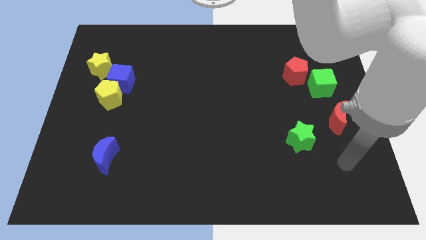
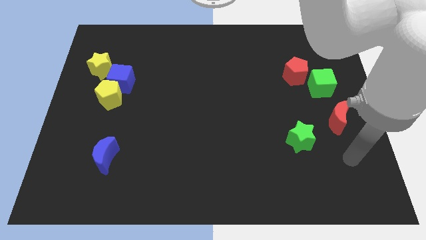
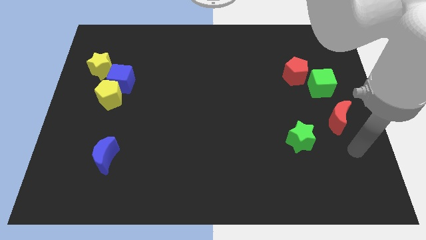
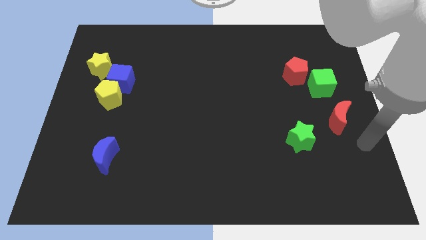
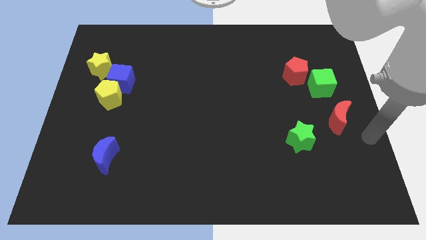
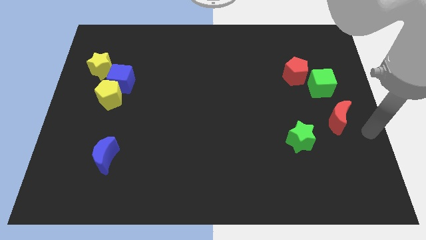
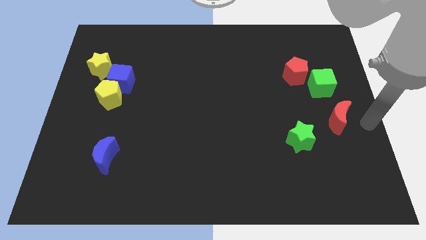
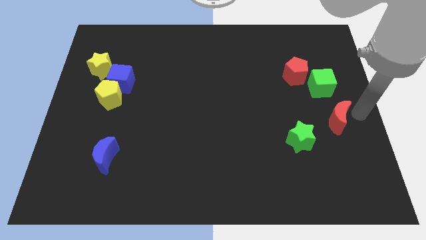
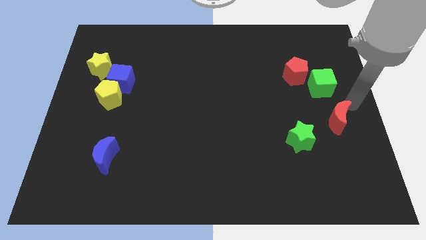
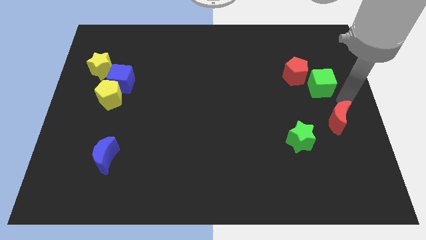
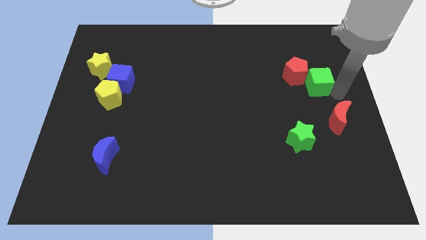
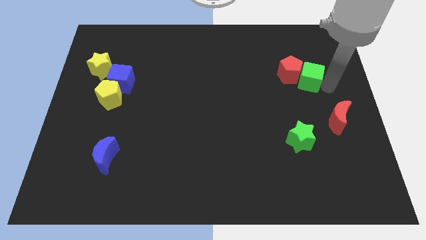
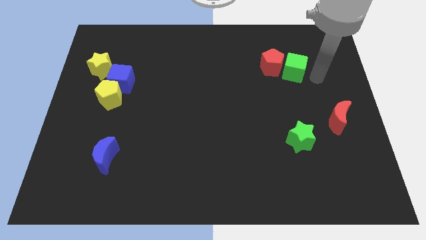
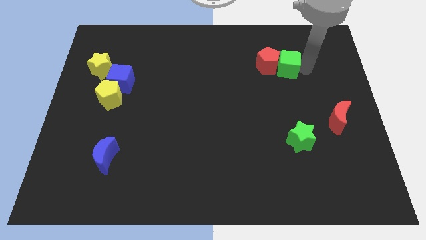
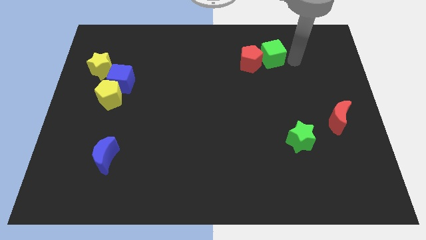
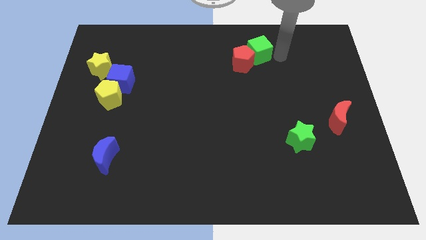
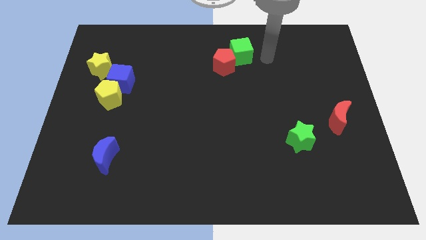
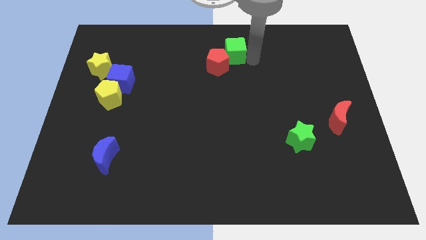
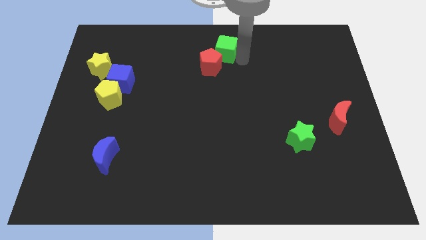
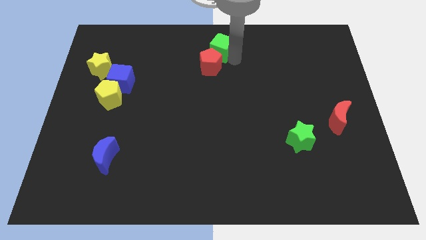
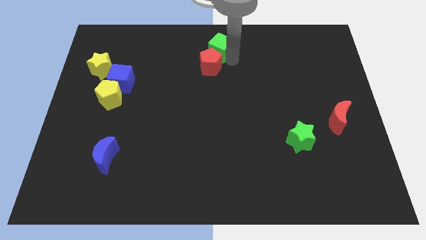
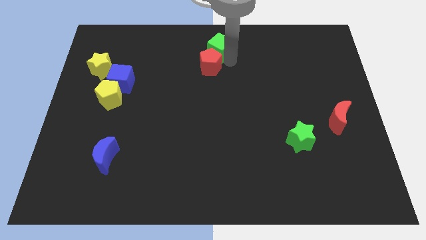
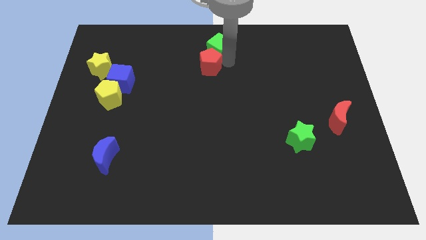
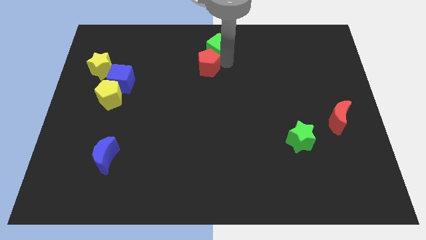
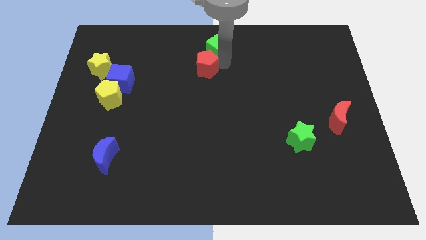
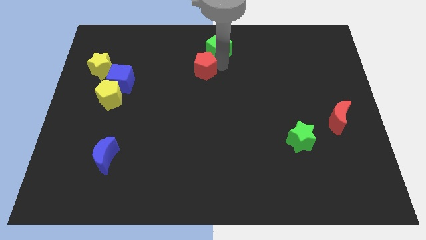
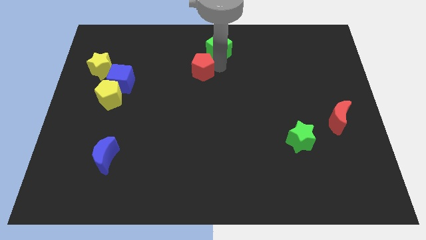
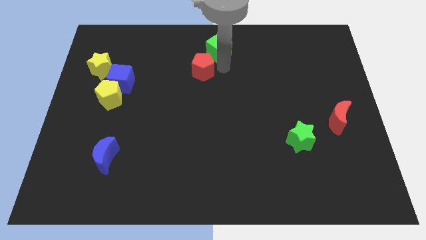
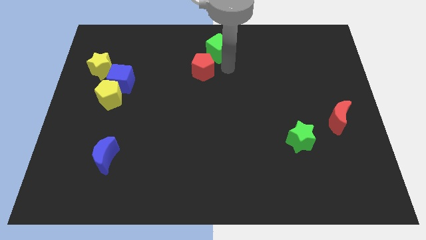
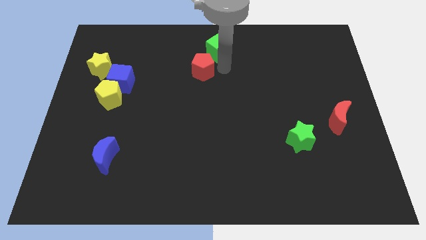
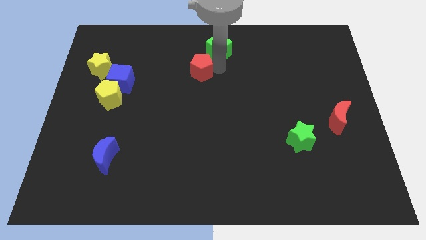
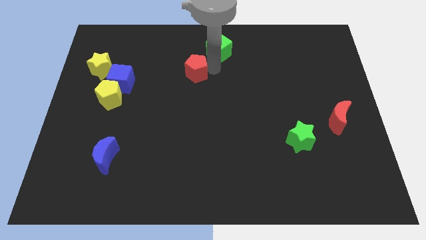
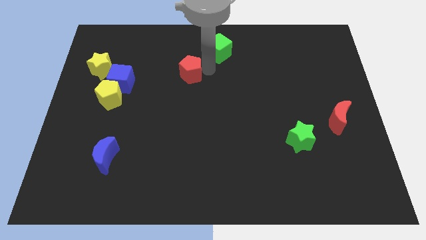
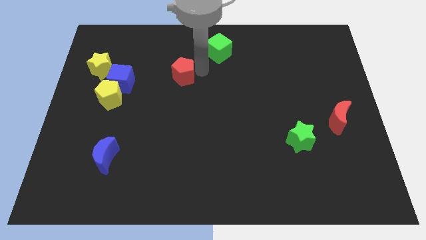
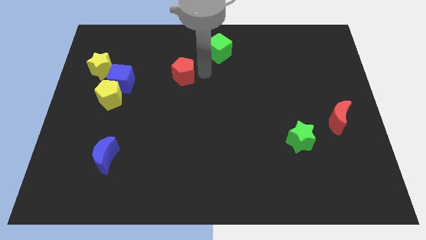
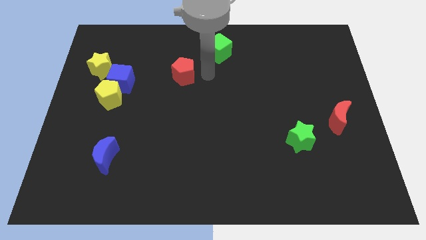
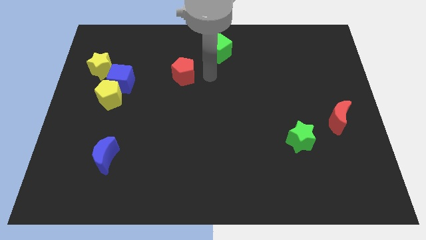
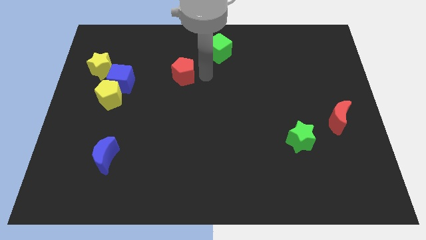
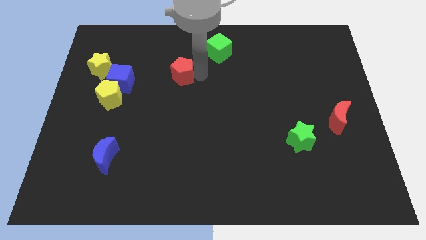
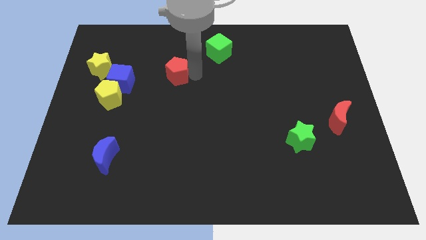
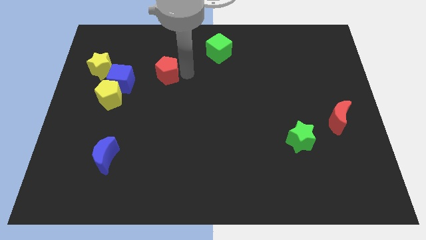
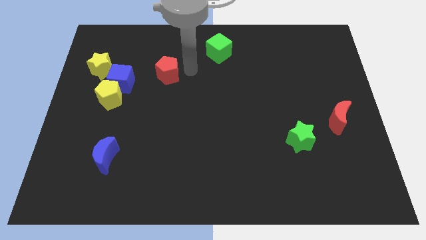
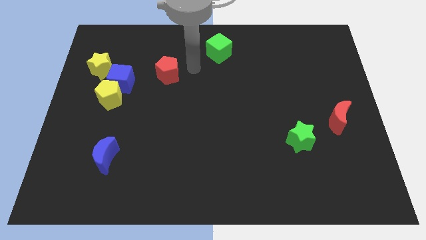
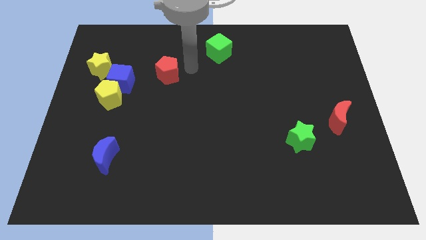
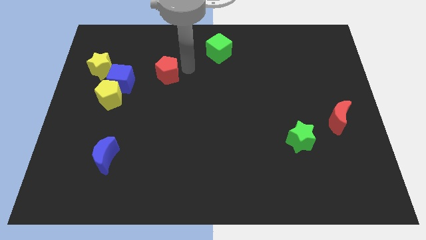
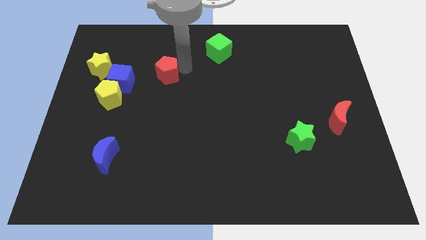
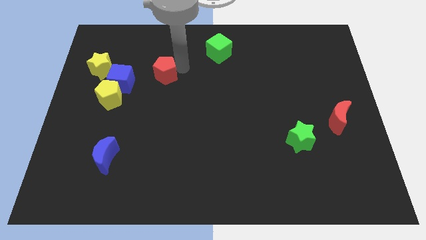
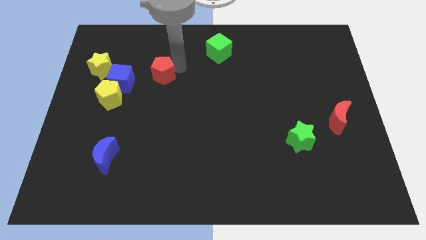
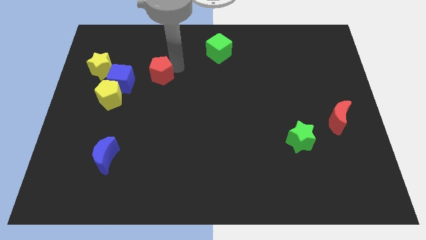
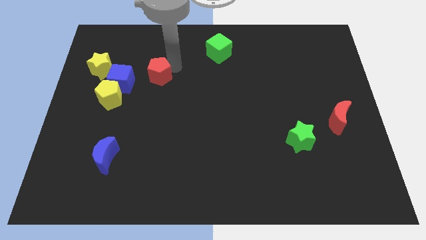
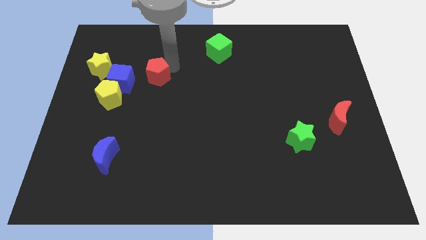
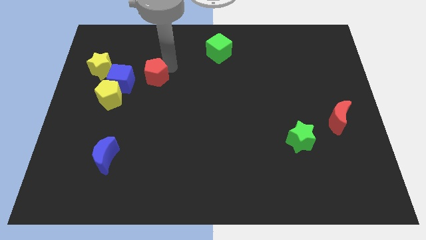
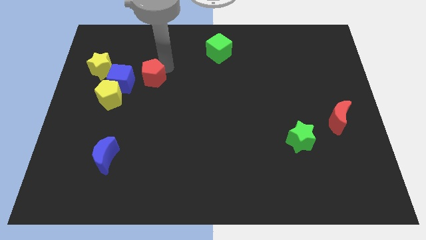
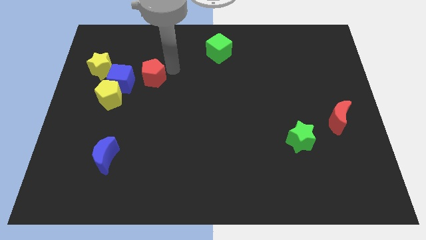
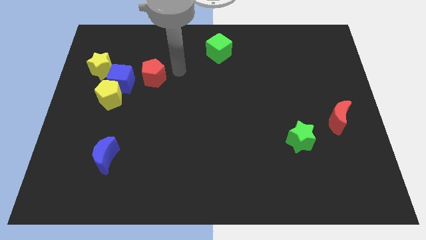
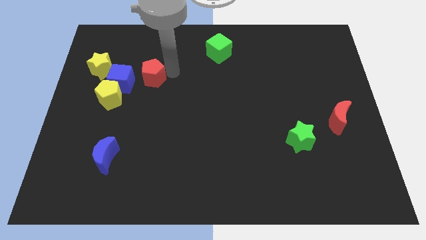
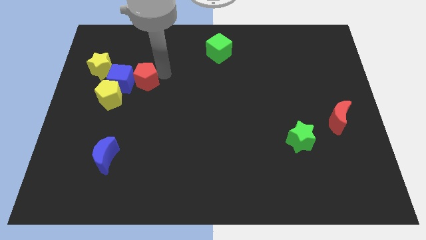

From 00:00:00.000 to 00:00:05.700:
slide the red pentagon to the blue cube

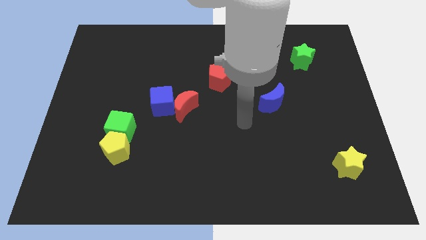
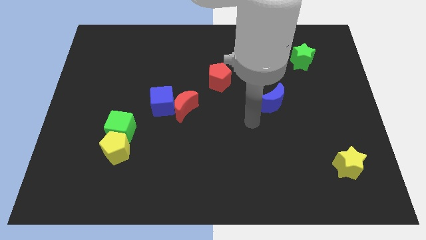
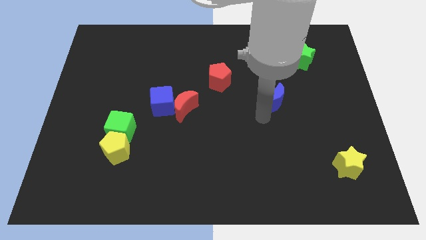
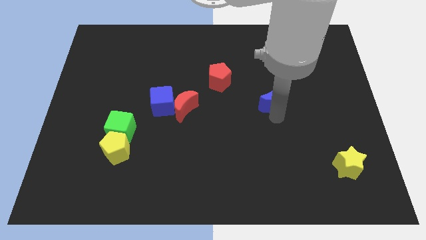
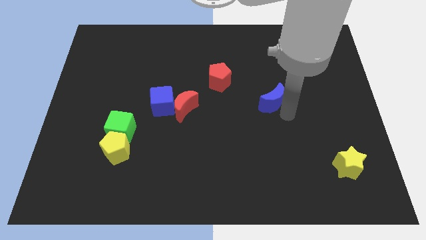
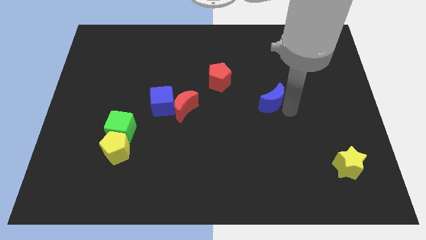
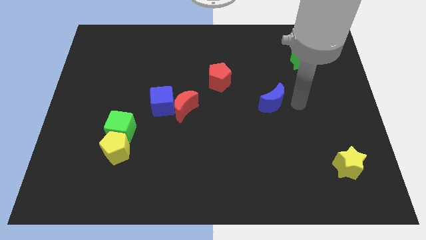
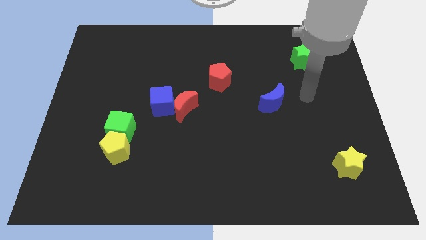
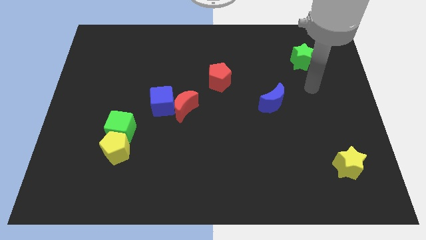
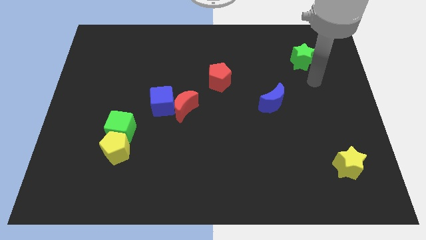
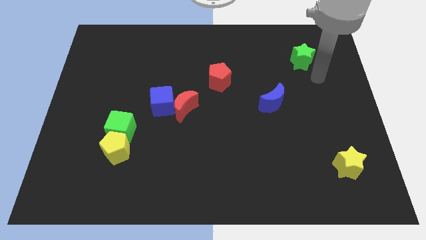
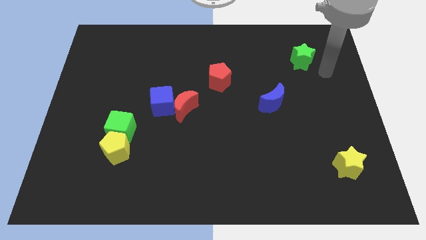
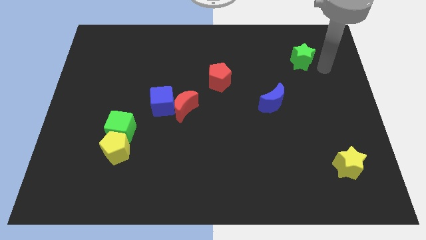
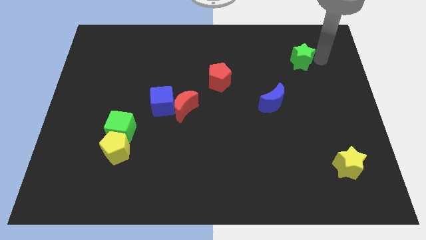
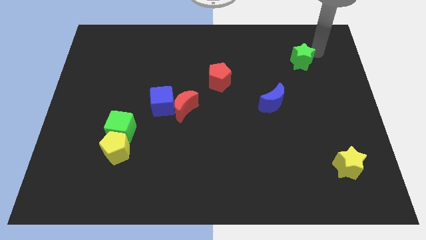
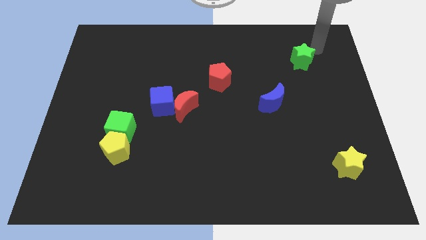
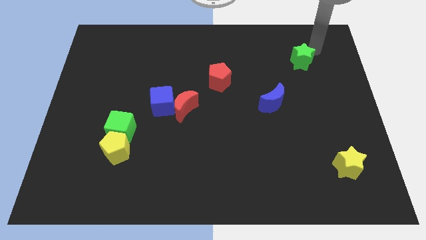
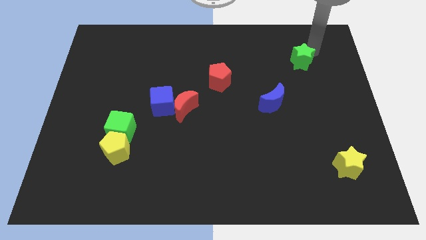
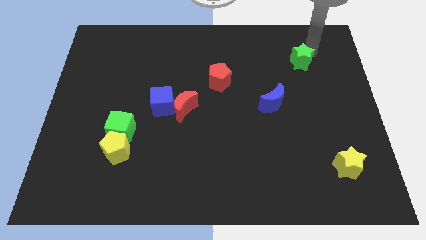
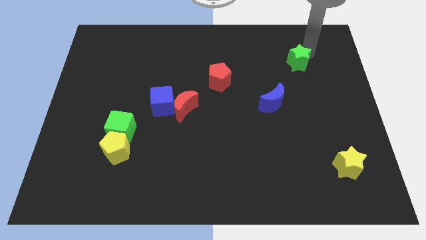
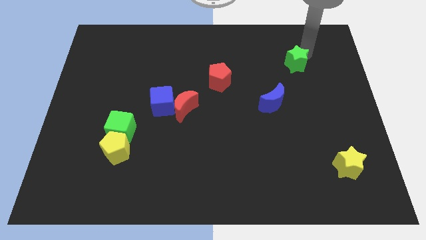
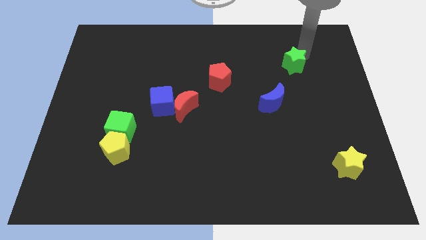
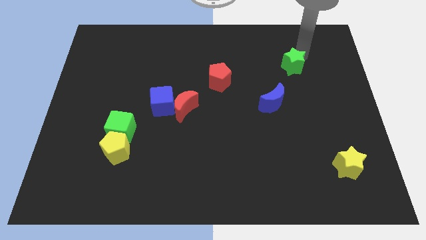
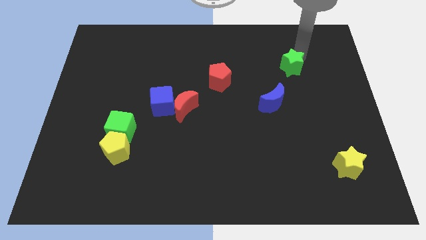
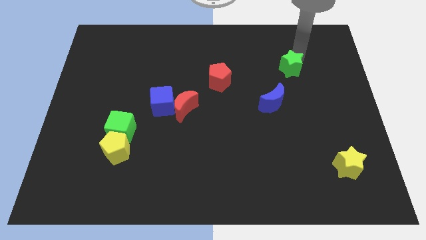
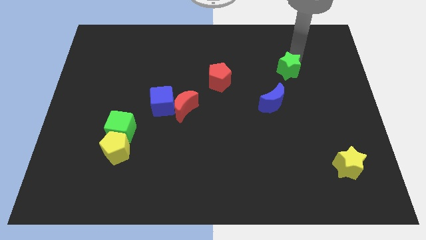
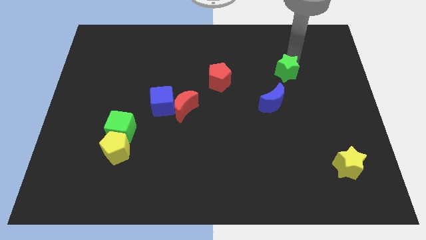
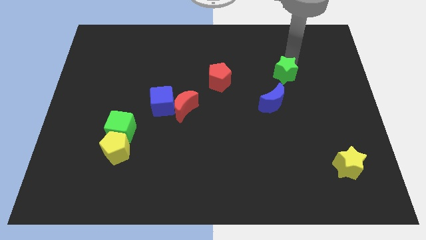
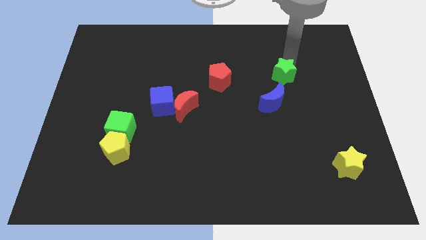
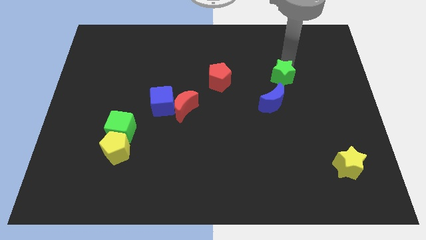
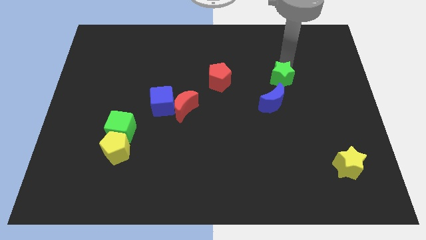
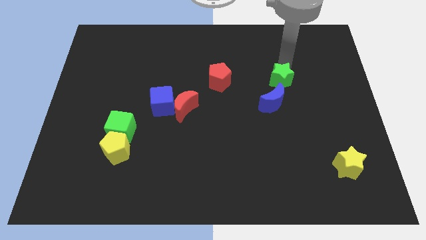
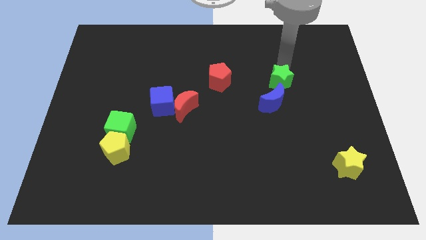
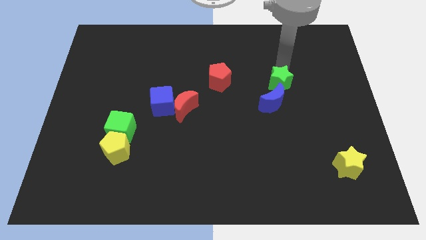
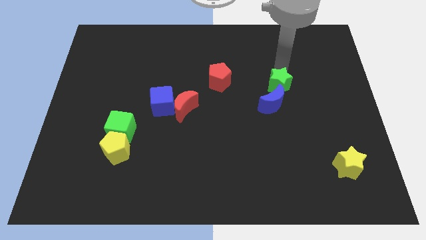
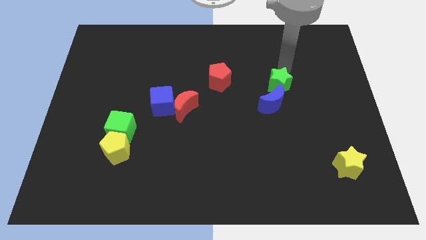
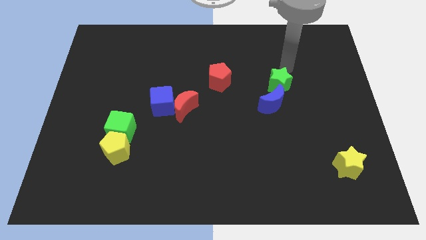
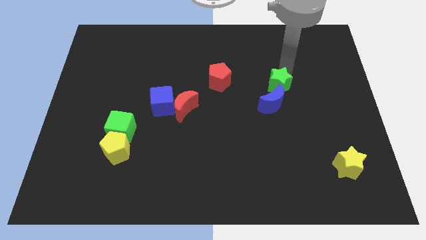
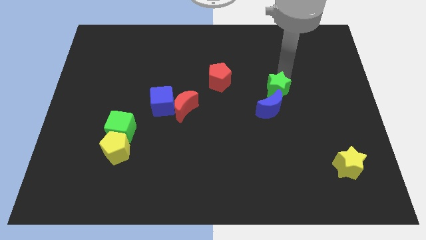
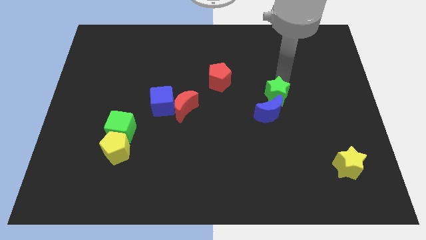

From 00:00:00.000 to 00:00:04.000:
move the green star towards the blue moon
